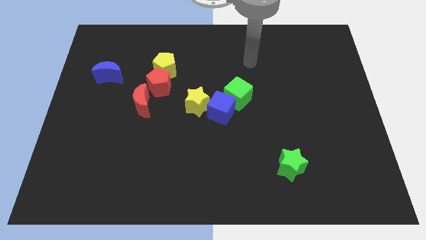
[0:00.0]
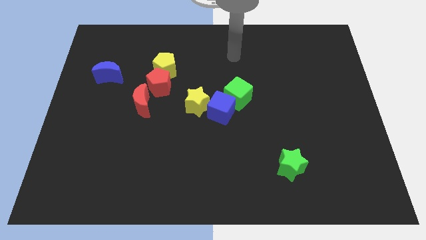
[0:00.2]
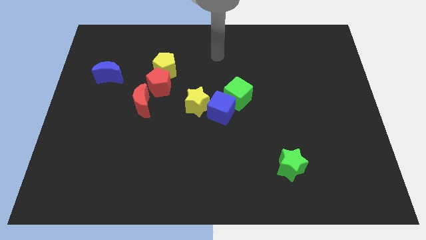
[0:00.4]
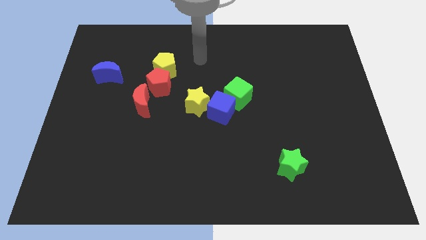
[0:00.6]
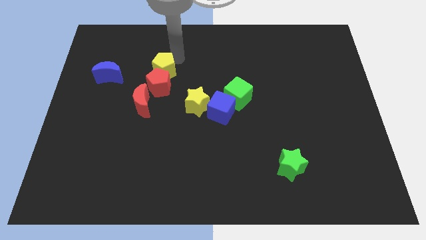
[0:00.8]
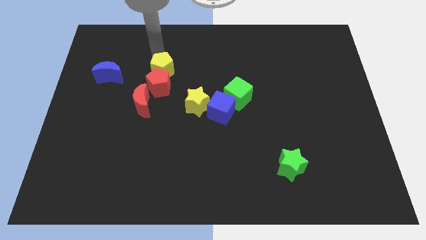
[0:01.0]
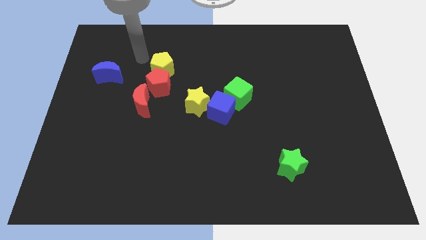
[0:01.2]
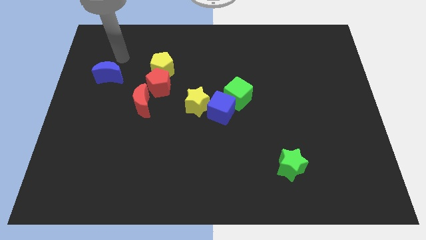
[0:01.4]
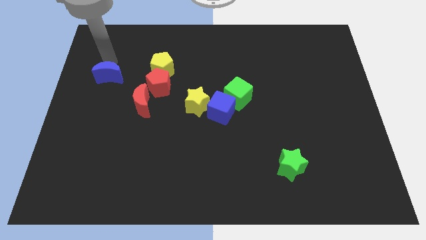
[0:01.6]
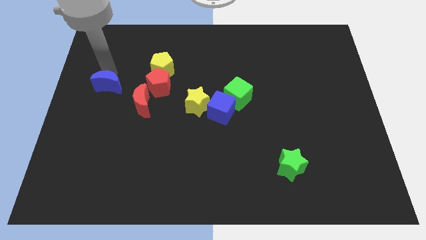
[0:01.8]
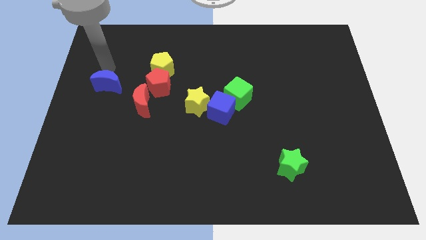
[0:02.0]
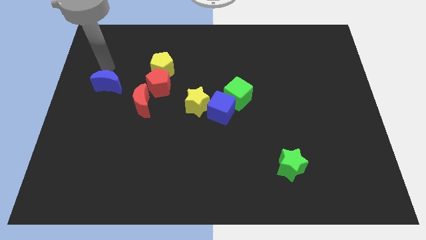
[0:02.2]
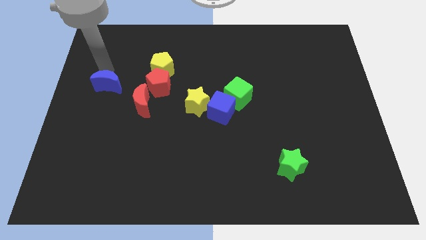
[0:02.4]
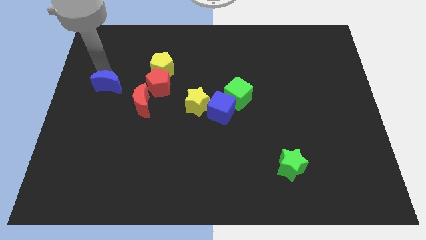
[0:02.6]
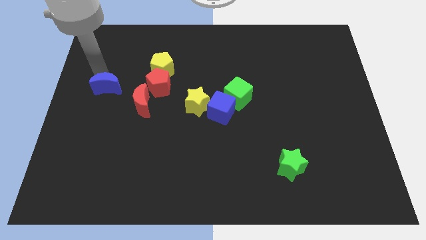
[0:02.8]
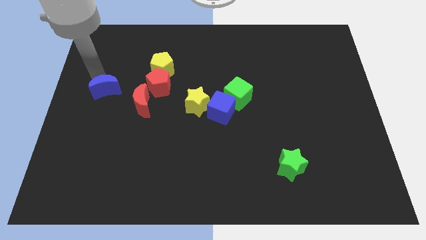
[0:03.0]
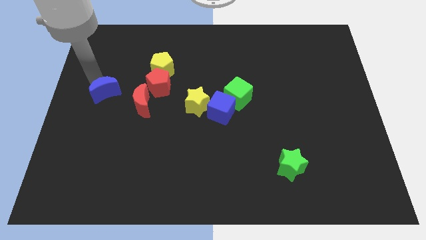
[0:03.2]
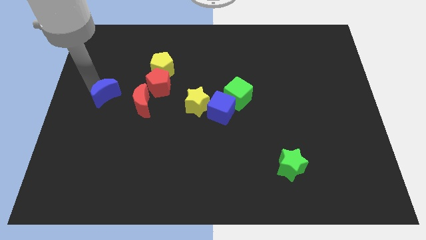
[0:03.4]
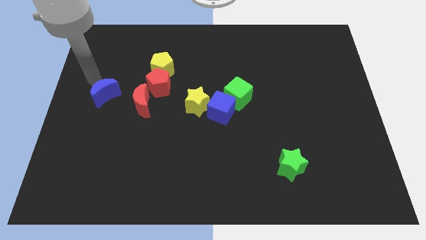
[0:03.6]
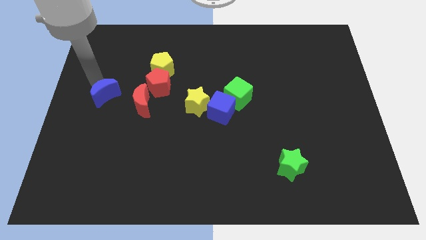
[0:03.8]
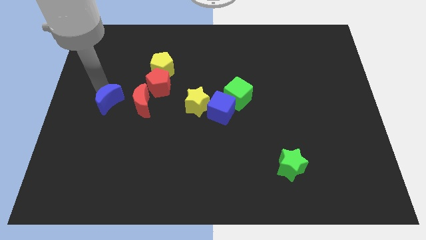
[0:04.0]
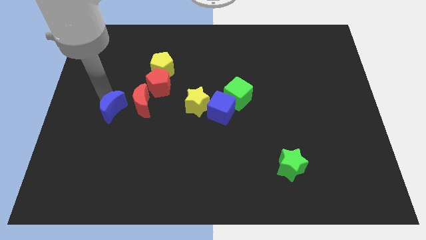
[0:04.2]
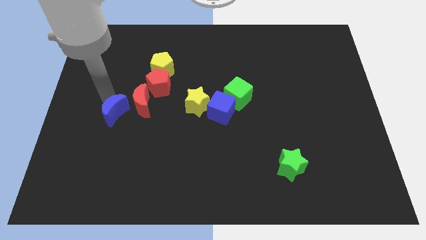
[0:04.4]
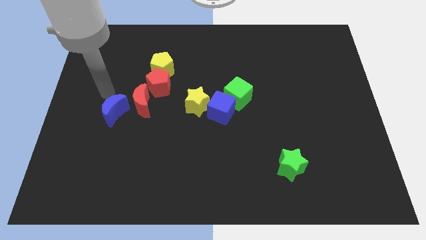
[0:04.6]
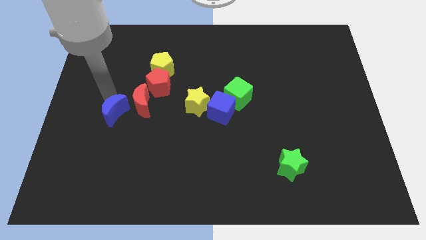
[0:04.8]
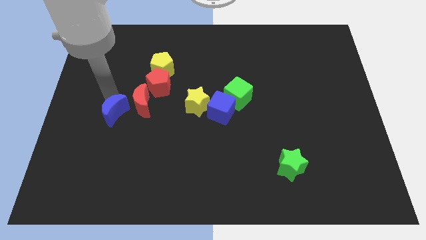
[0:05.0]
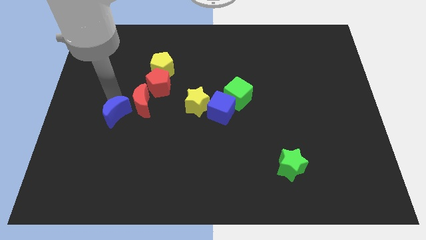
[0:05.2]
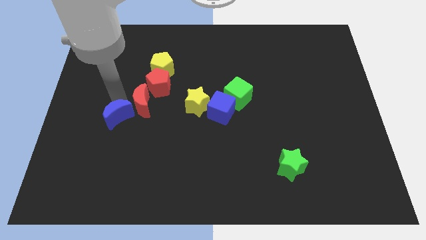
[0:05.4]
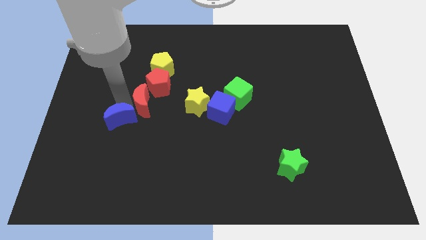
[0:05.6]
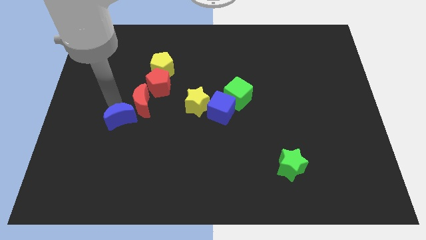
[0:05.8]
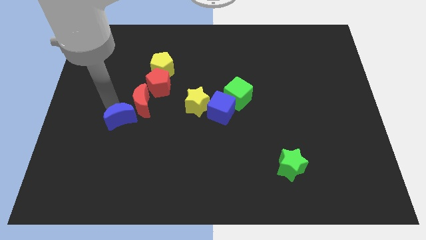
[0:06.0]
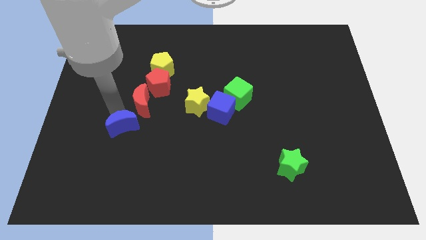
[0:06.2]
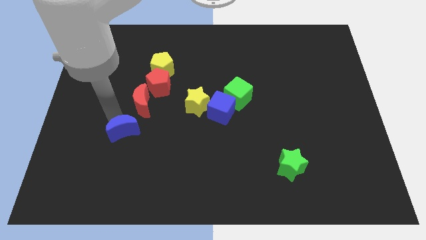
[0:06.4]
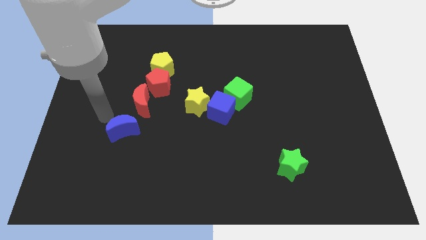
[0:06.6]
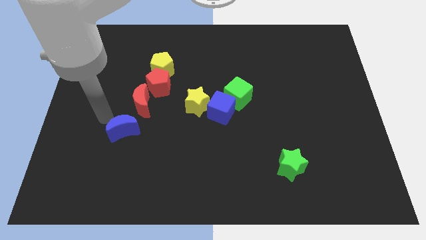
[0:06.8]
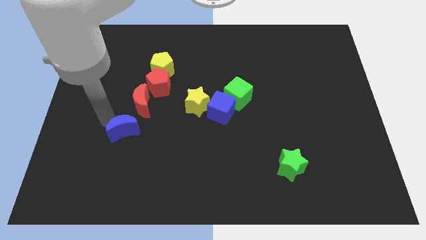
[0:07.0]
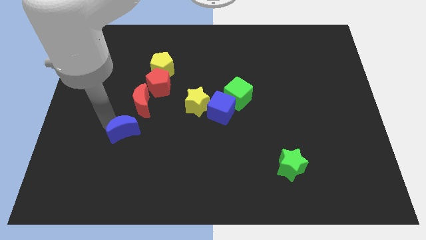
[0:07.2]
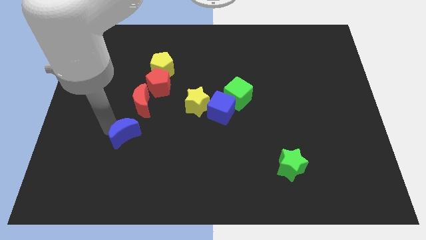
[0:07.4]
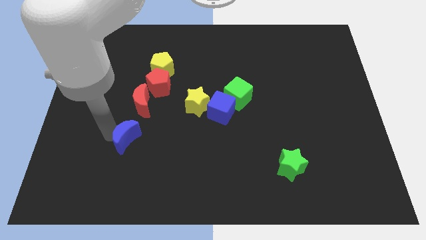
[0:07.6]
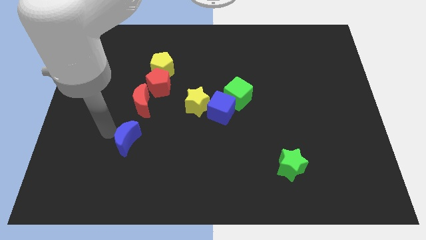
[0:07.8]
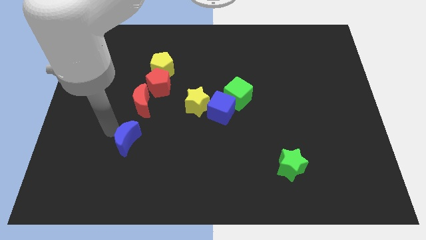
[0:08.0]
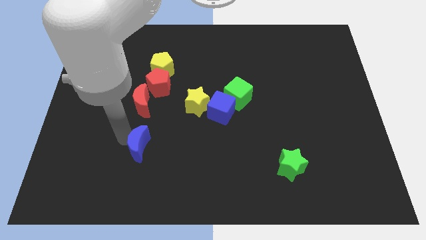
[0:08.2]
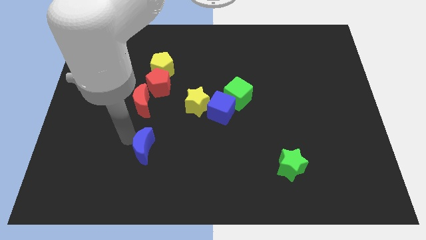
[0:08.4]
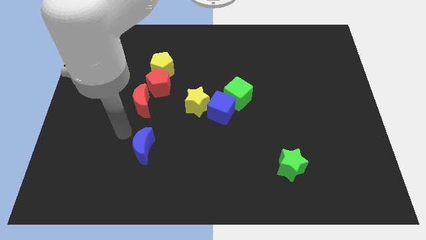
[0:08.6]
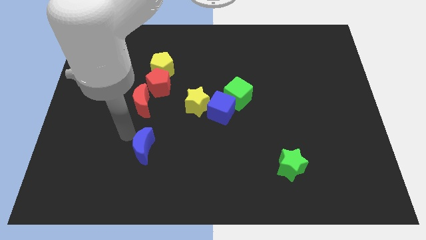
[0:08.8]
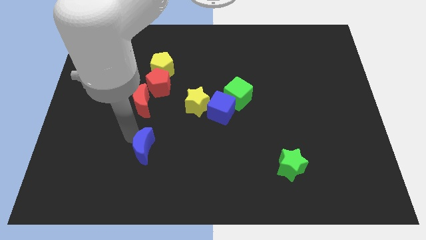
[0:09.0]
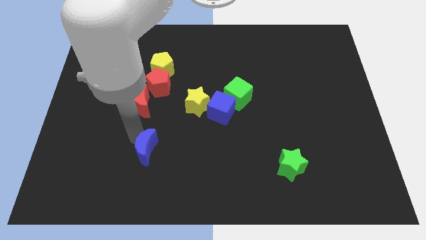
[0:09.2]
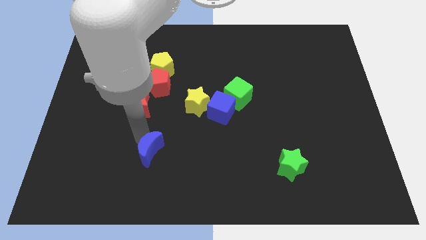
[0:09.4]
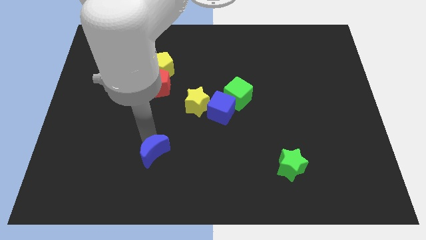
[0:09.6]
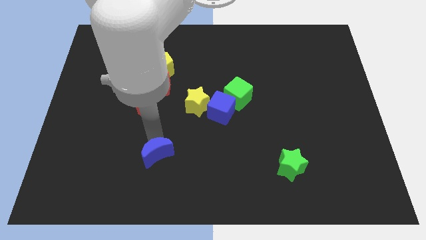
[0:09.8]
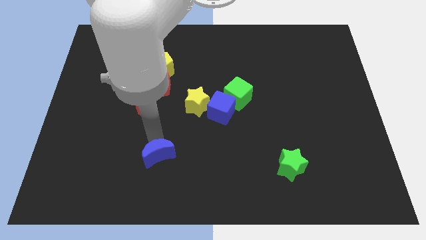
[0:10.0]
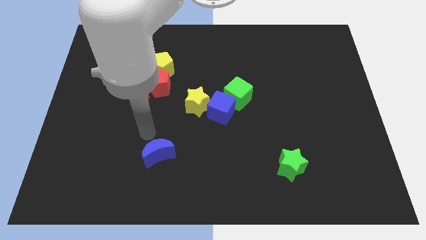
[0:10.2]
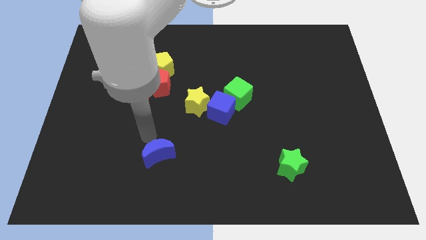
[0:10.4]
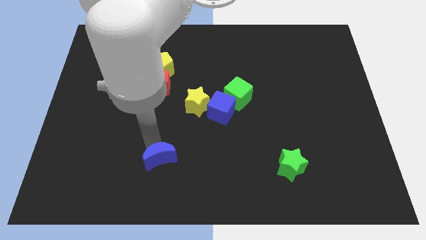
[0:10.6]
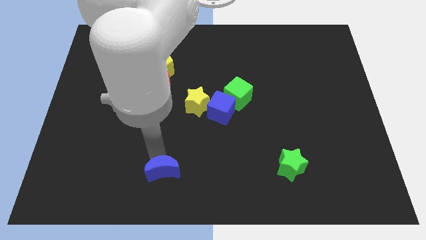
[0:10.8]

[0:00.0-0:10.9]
push the blue moon to the bottom
